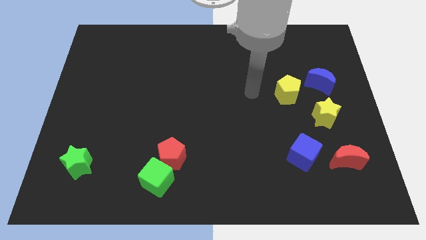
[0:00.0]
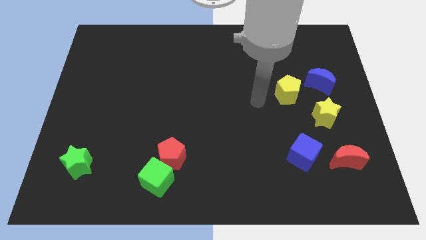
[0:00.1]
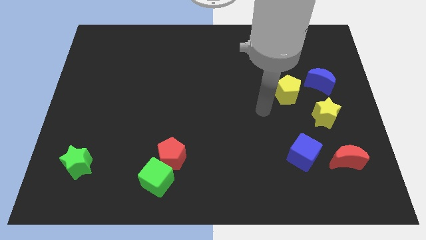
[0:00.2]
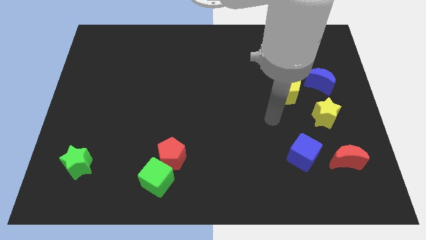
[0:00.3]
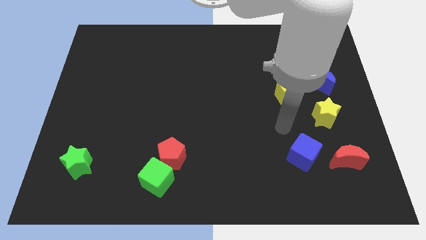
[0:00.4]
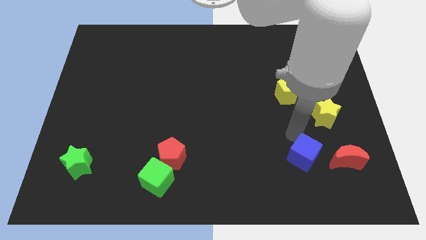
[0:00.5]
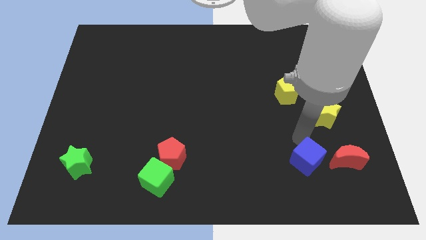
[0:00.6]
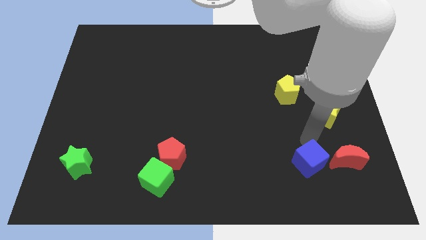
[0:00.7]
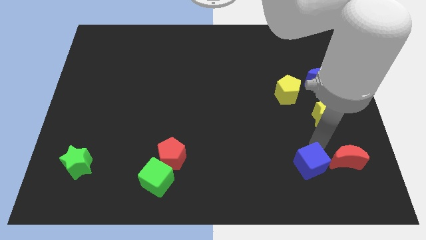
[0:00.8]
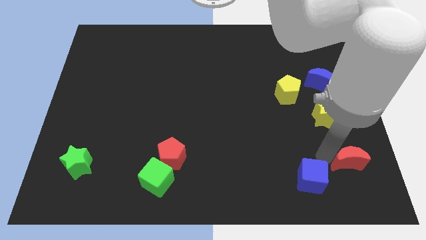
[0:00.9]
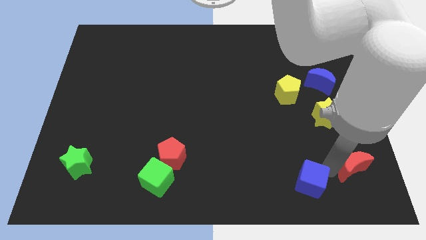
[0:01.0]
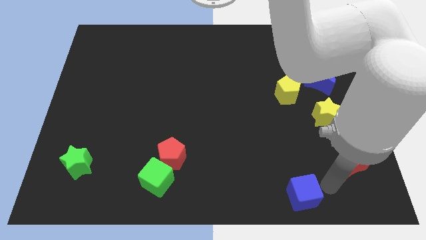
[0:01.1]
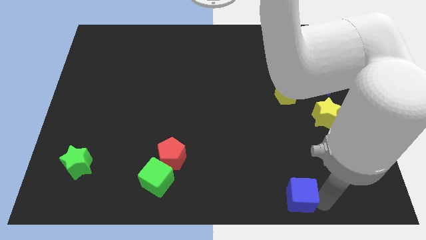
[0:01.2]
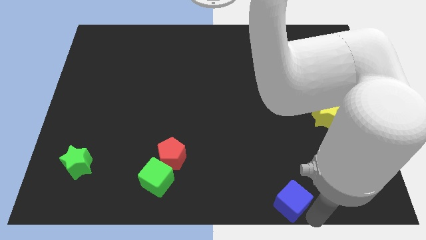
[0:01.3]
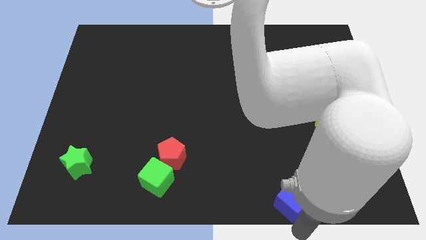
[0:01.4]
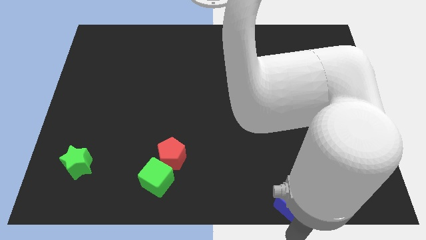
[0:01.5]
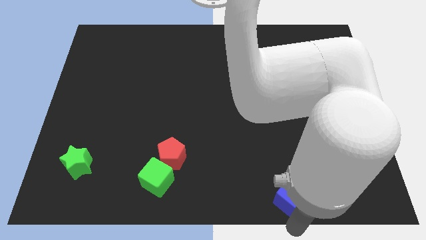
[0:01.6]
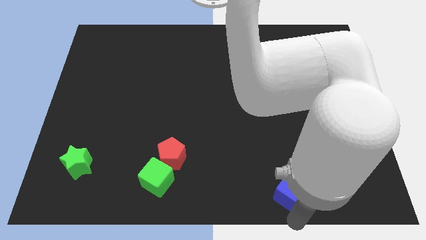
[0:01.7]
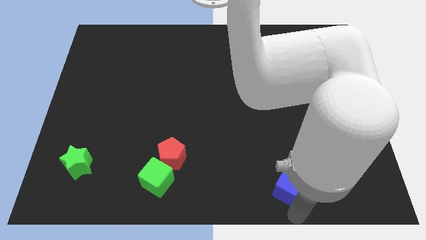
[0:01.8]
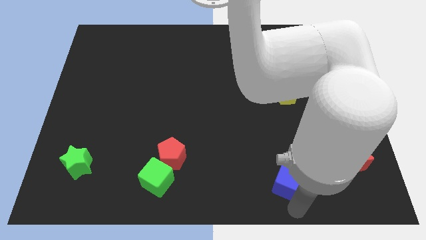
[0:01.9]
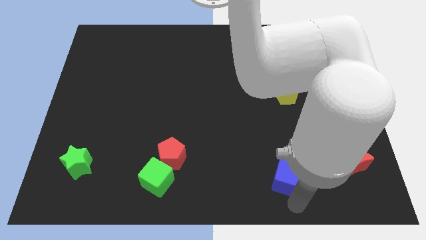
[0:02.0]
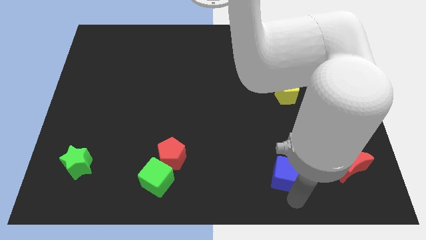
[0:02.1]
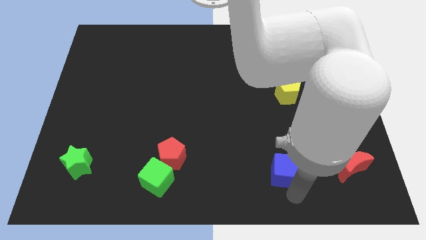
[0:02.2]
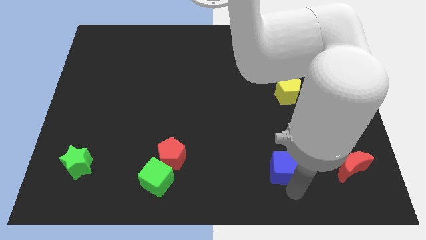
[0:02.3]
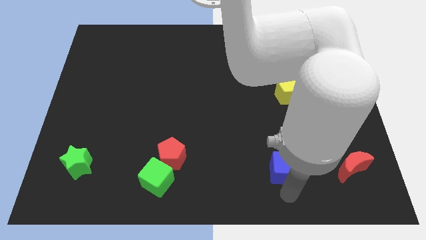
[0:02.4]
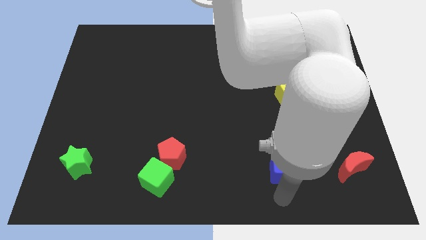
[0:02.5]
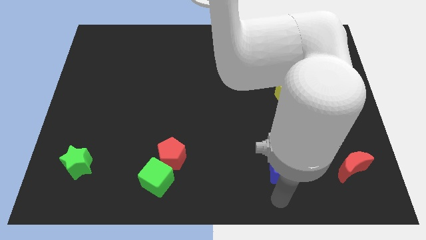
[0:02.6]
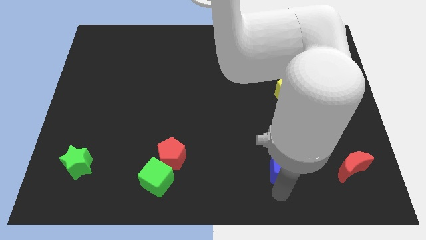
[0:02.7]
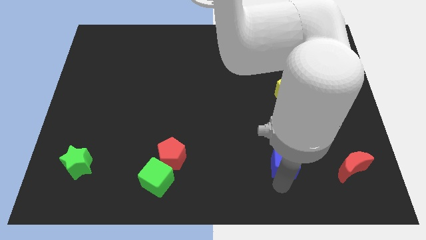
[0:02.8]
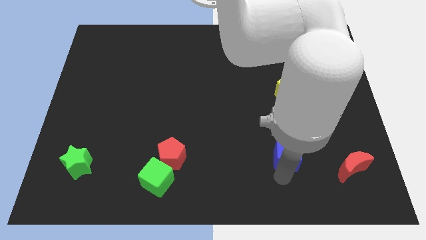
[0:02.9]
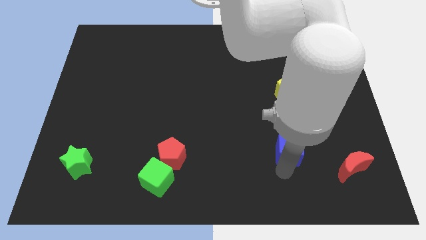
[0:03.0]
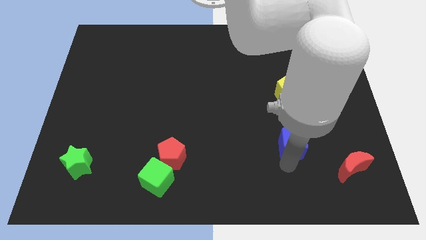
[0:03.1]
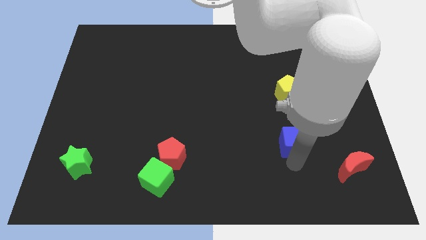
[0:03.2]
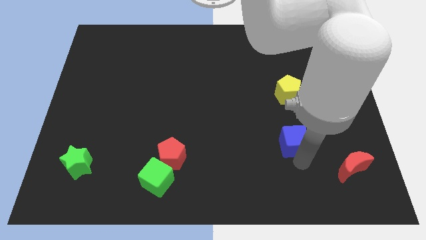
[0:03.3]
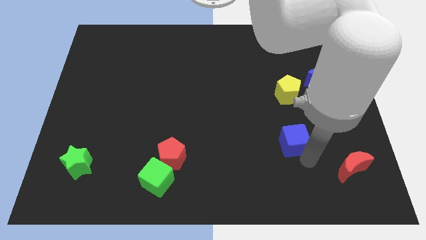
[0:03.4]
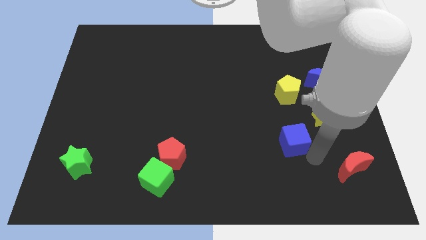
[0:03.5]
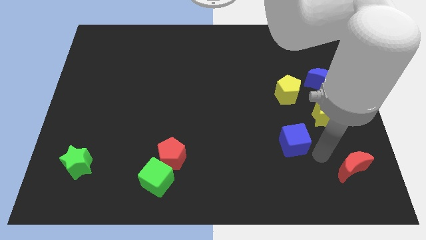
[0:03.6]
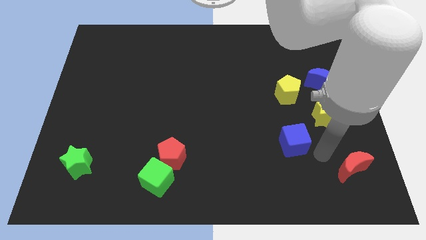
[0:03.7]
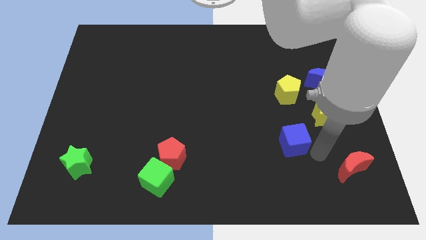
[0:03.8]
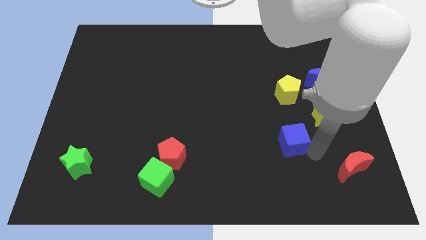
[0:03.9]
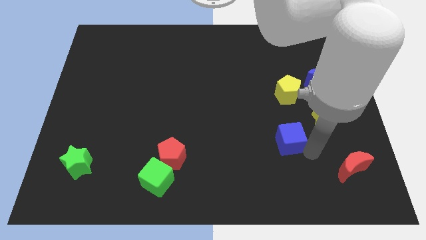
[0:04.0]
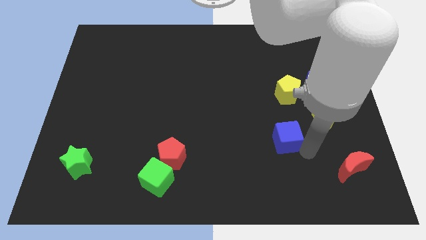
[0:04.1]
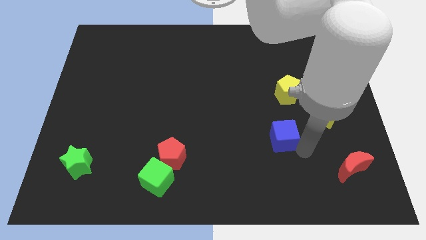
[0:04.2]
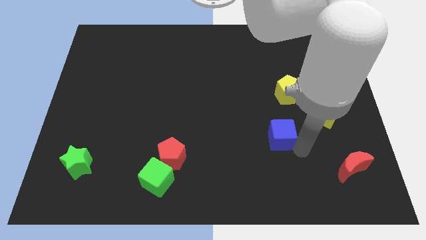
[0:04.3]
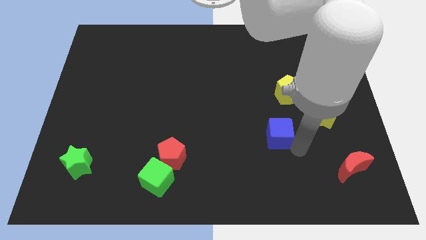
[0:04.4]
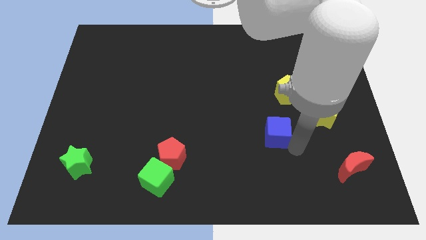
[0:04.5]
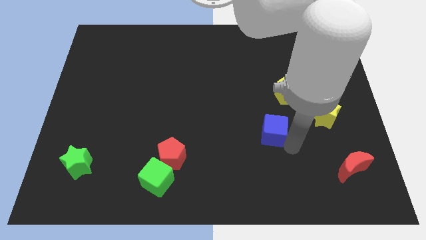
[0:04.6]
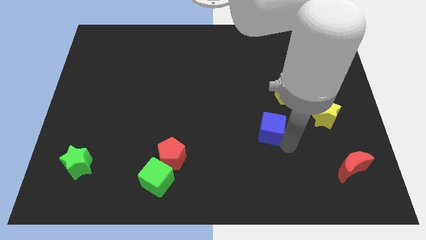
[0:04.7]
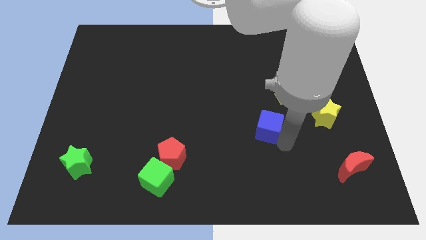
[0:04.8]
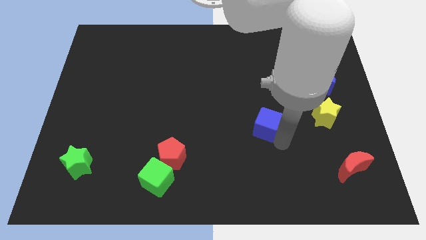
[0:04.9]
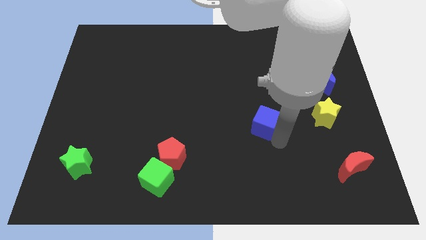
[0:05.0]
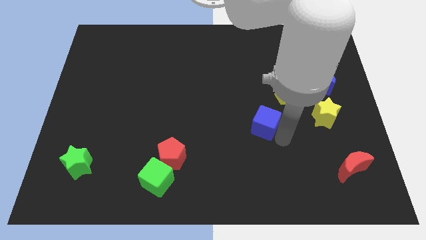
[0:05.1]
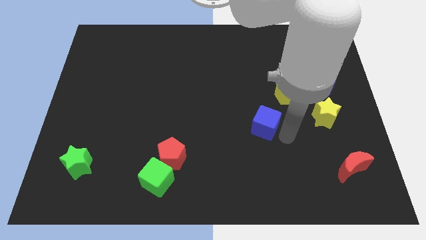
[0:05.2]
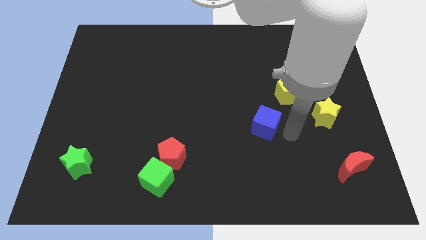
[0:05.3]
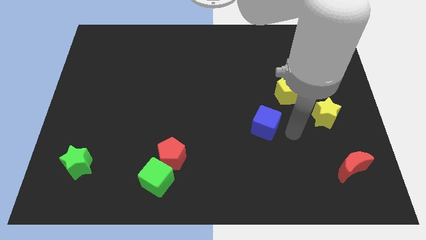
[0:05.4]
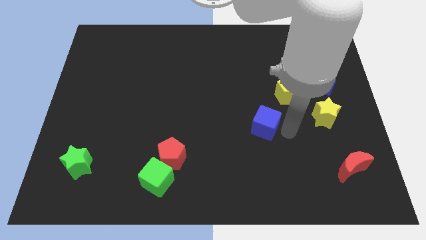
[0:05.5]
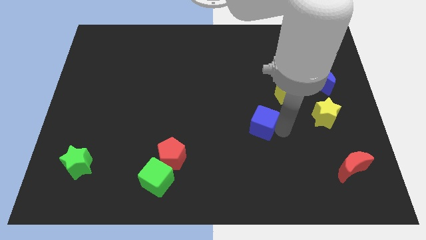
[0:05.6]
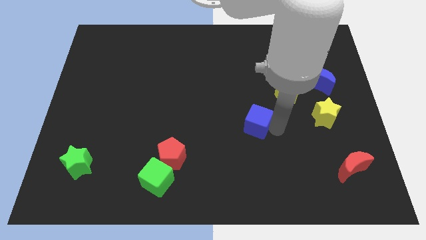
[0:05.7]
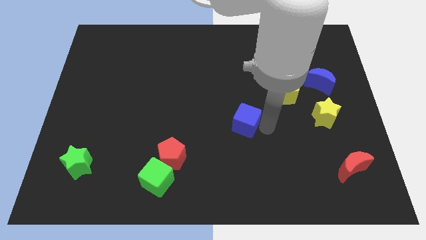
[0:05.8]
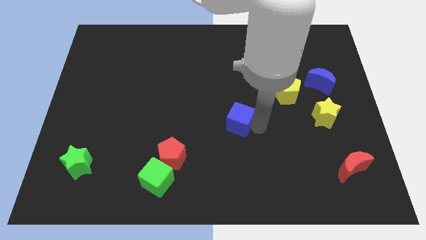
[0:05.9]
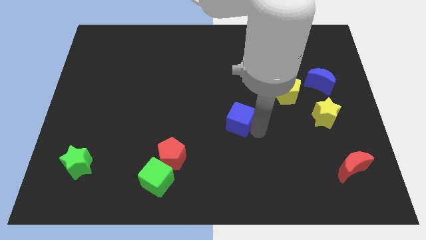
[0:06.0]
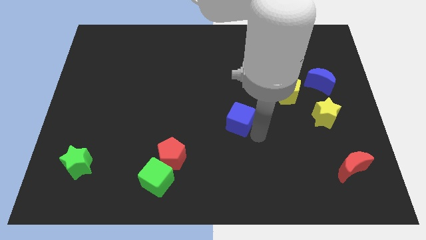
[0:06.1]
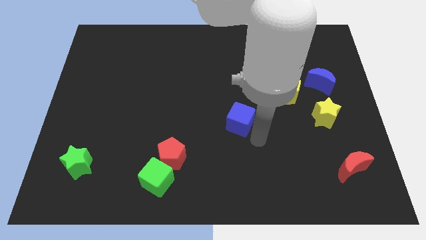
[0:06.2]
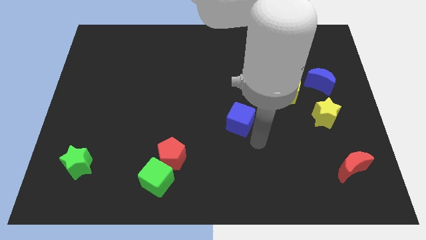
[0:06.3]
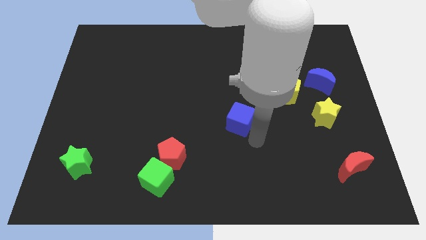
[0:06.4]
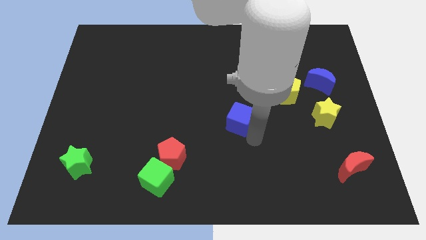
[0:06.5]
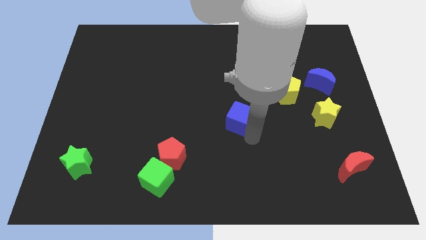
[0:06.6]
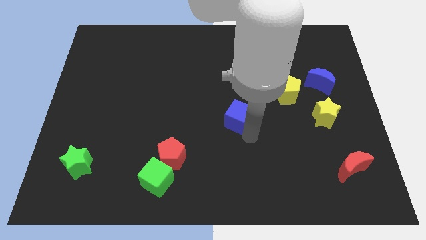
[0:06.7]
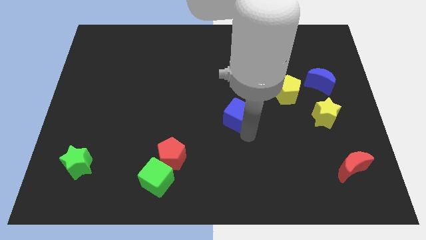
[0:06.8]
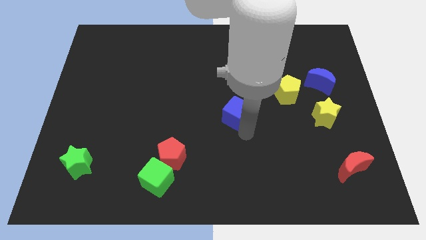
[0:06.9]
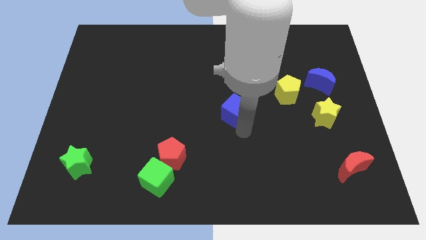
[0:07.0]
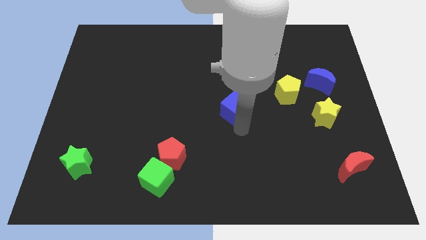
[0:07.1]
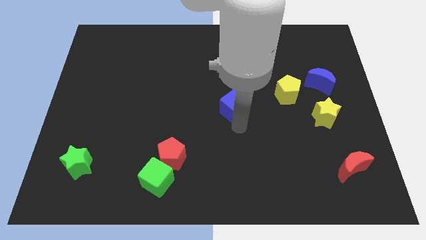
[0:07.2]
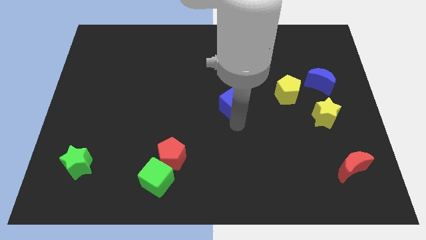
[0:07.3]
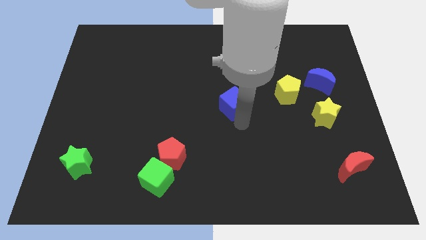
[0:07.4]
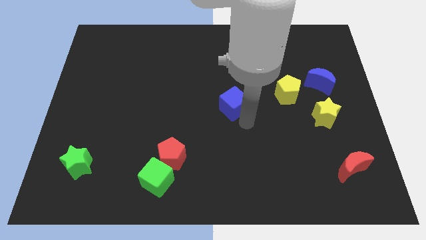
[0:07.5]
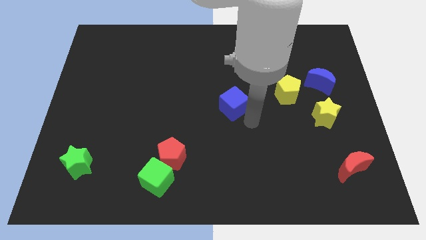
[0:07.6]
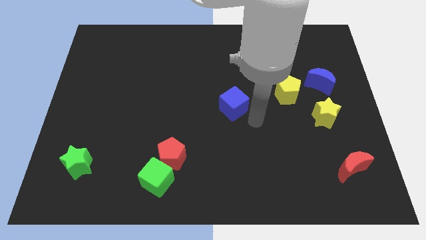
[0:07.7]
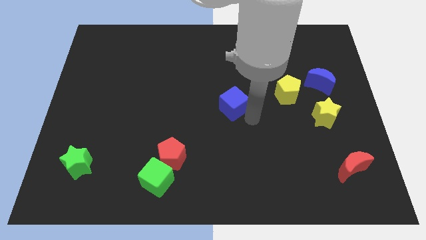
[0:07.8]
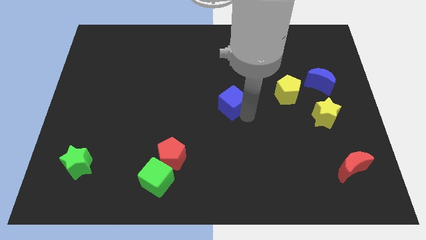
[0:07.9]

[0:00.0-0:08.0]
slide the blue cube up and to the left
